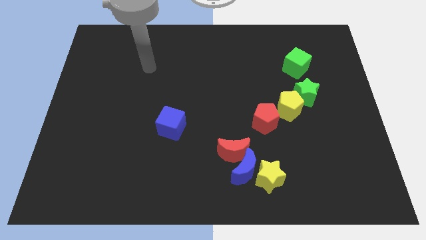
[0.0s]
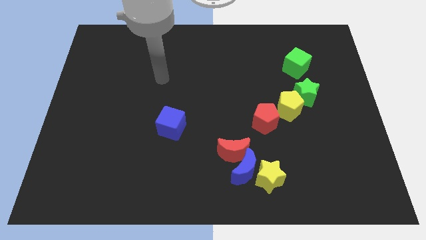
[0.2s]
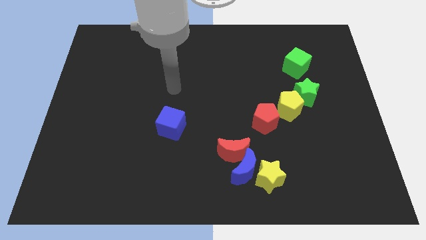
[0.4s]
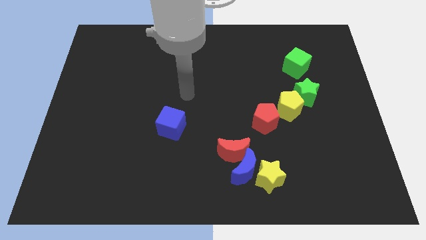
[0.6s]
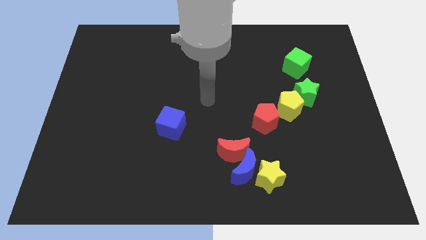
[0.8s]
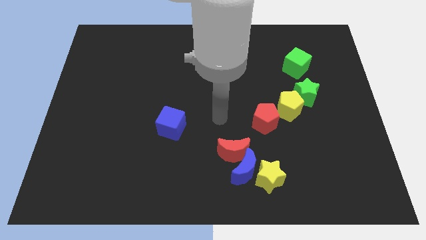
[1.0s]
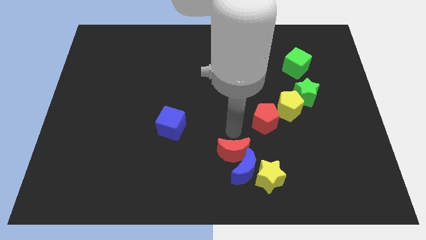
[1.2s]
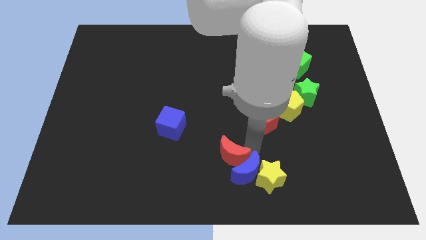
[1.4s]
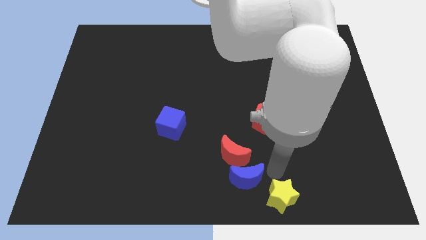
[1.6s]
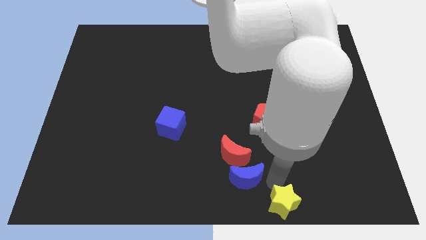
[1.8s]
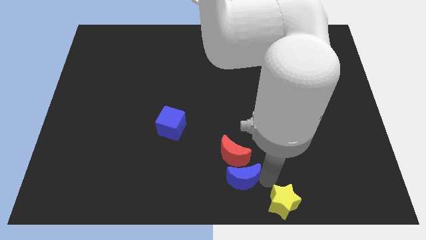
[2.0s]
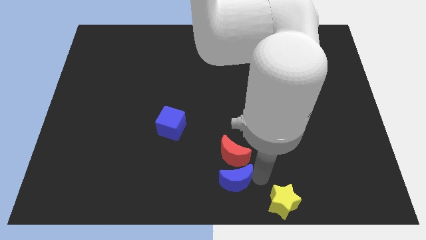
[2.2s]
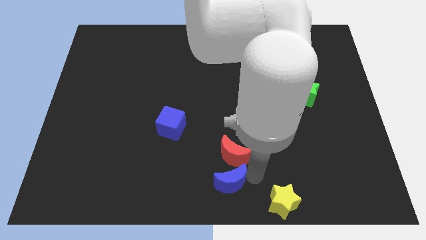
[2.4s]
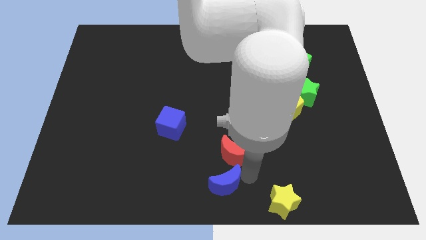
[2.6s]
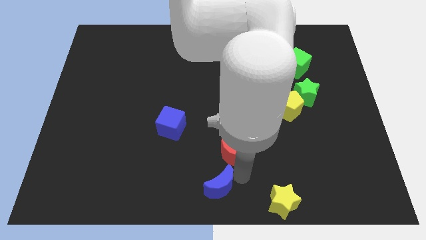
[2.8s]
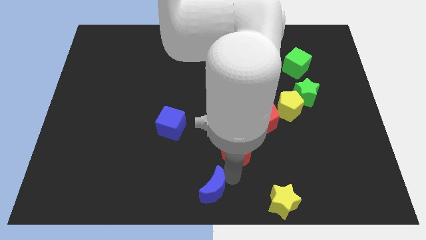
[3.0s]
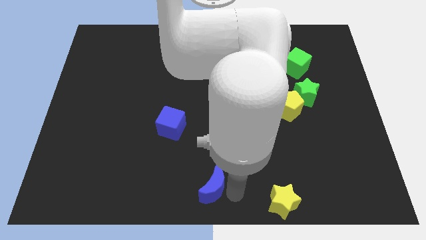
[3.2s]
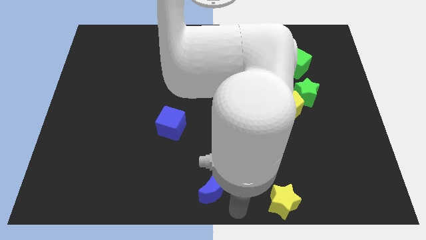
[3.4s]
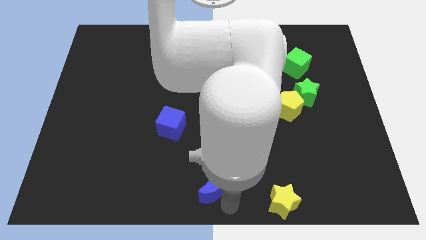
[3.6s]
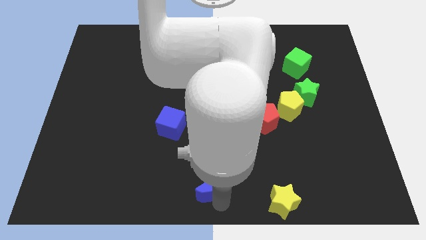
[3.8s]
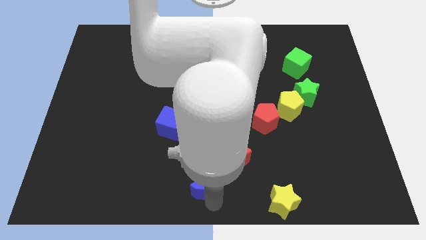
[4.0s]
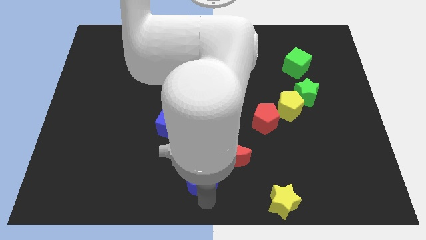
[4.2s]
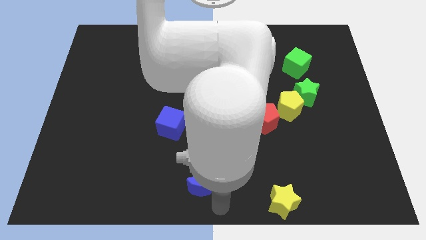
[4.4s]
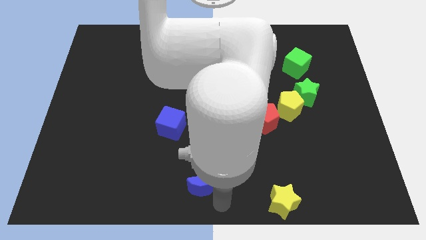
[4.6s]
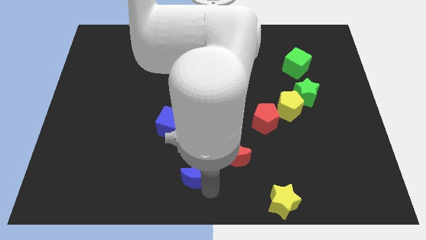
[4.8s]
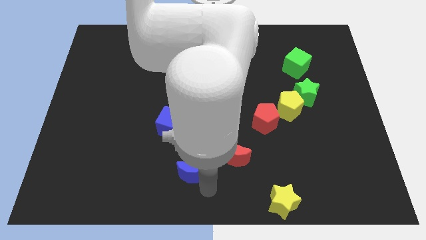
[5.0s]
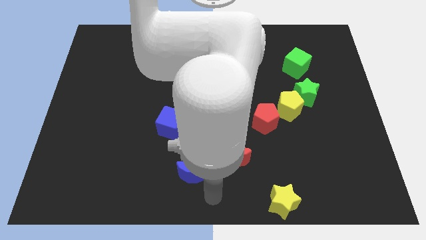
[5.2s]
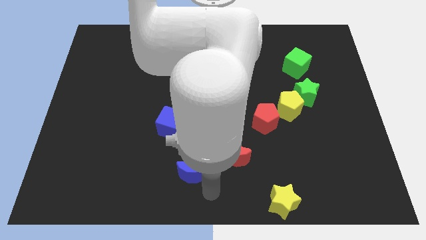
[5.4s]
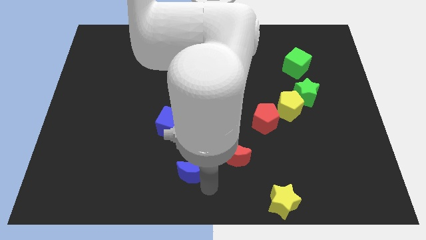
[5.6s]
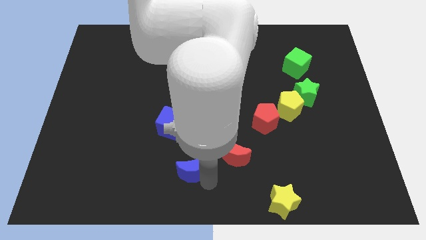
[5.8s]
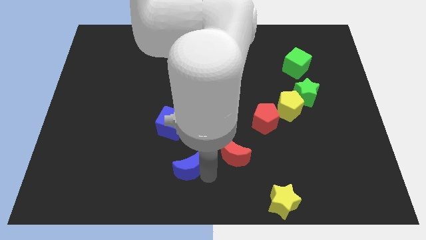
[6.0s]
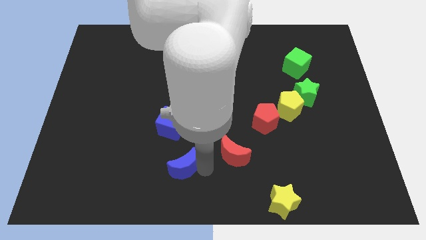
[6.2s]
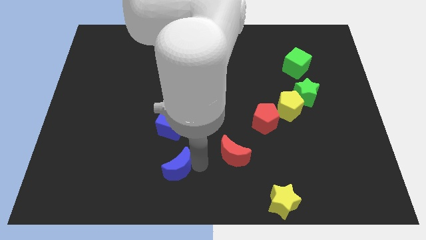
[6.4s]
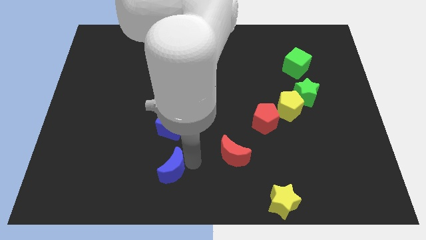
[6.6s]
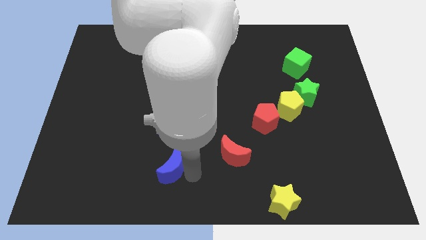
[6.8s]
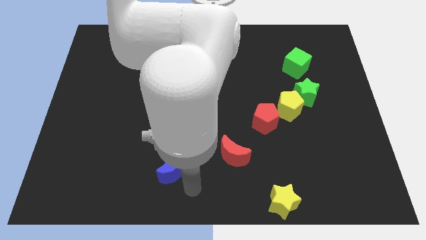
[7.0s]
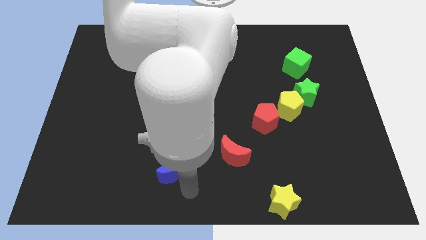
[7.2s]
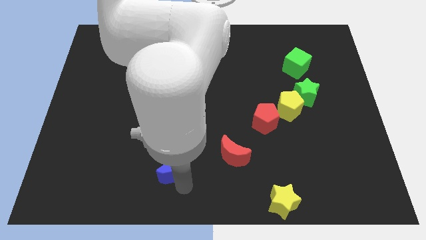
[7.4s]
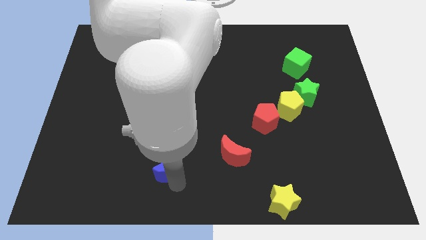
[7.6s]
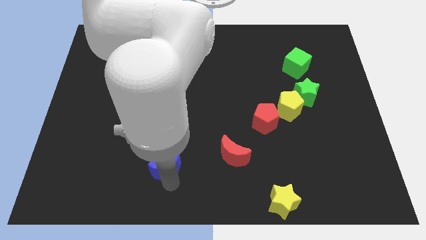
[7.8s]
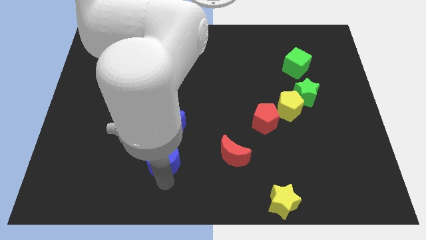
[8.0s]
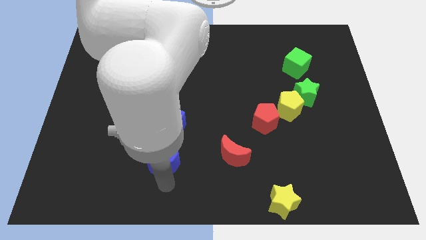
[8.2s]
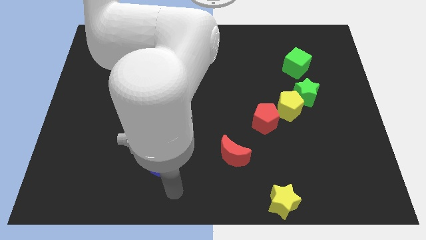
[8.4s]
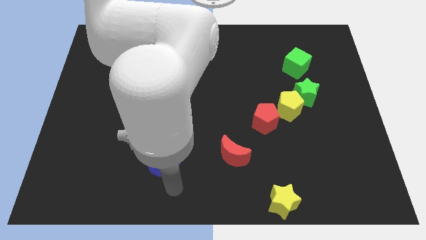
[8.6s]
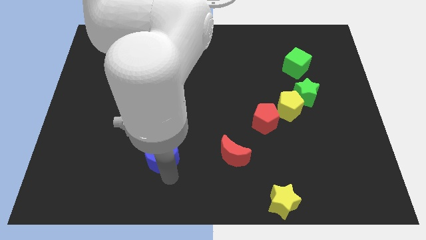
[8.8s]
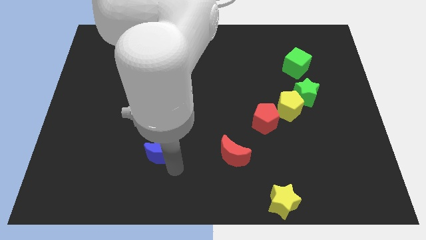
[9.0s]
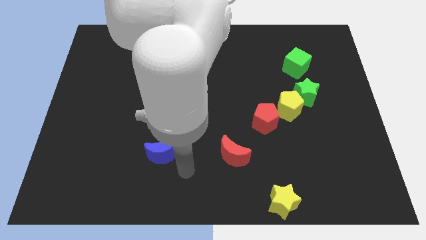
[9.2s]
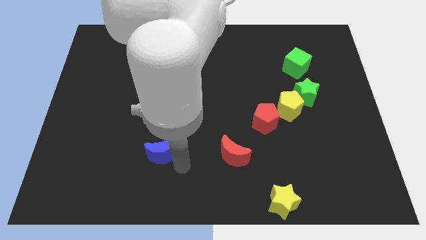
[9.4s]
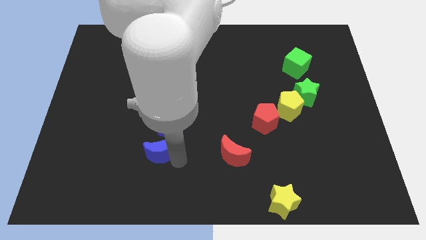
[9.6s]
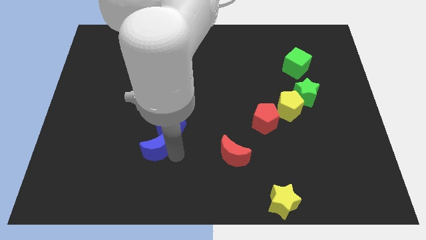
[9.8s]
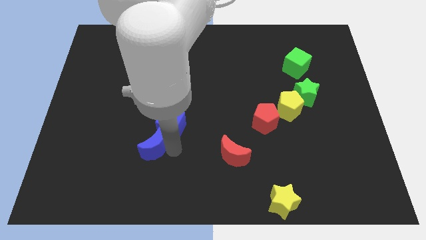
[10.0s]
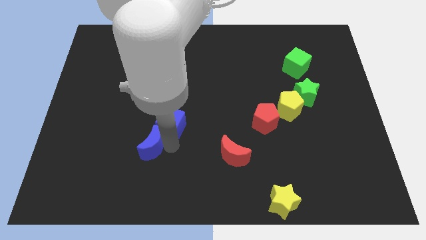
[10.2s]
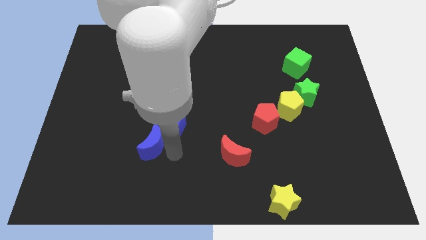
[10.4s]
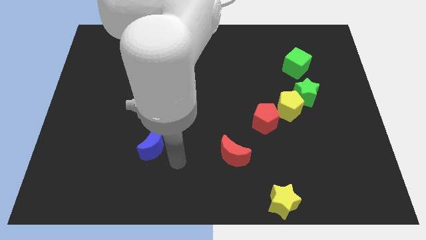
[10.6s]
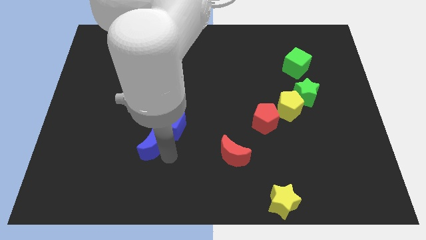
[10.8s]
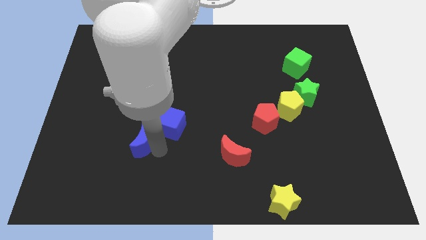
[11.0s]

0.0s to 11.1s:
move the blue moon to the left of the blue cube

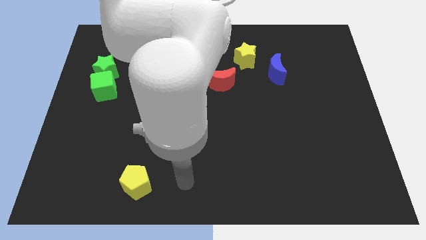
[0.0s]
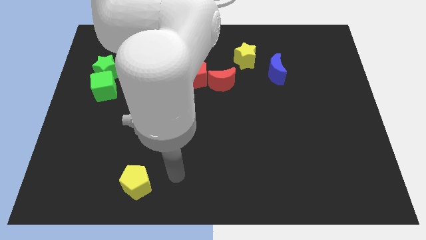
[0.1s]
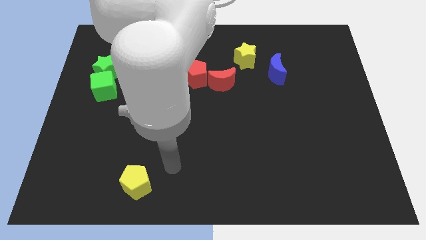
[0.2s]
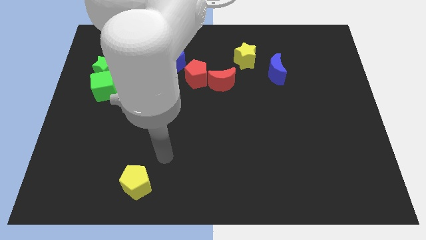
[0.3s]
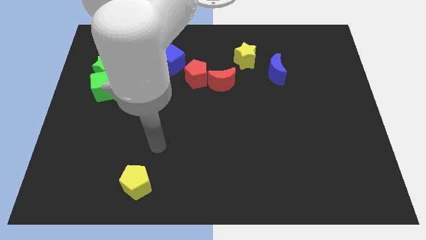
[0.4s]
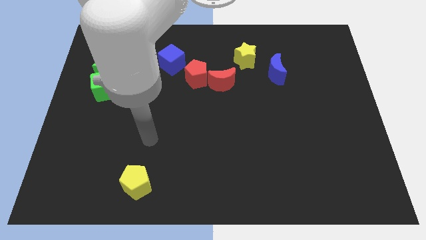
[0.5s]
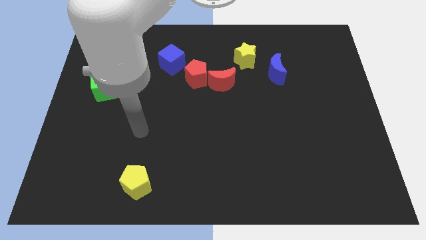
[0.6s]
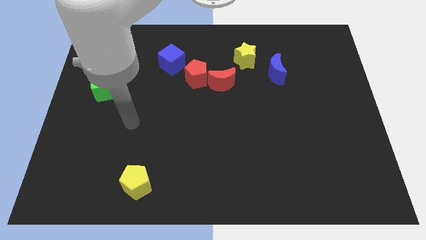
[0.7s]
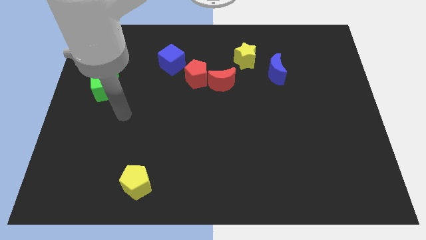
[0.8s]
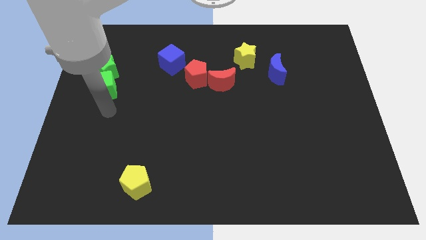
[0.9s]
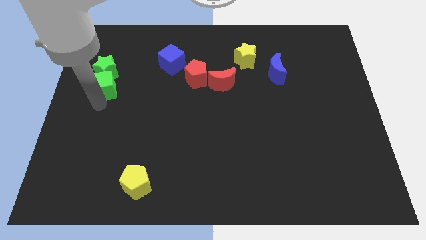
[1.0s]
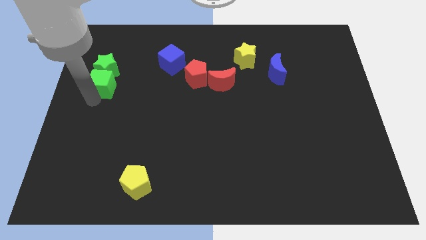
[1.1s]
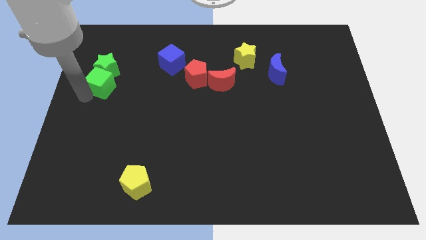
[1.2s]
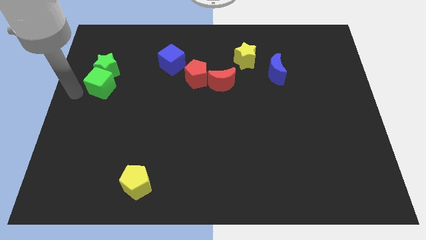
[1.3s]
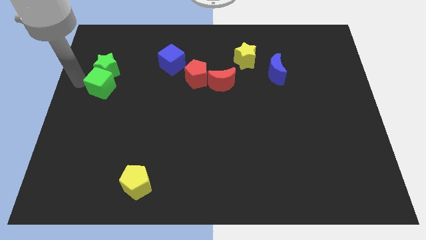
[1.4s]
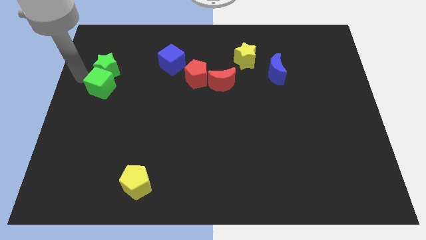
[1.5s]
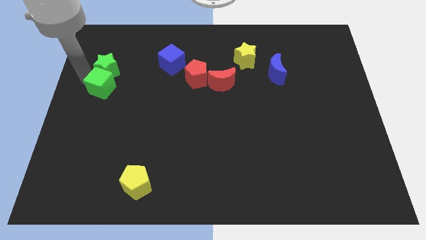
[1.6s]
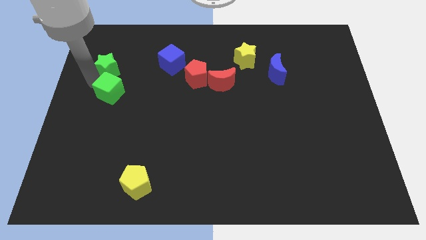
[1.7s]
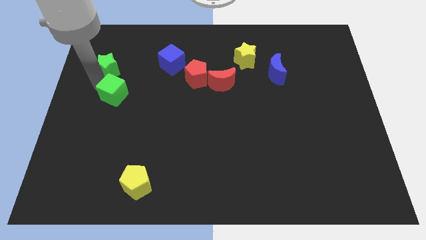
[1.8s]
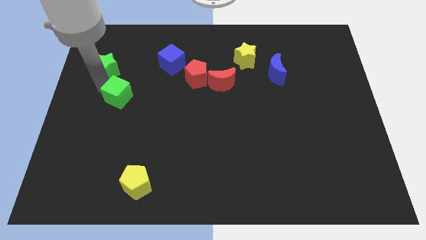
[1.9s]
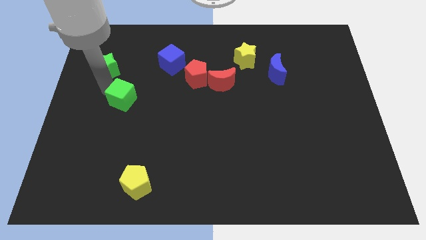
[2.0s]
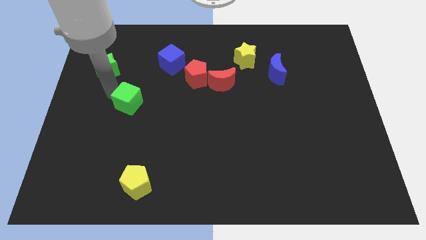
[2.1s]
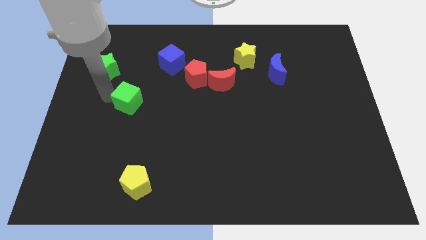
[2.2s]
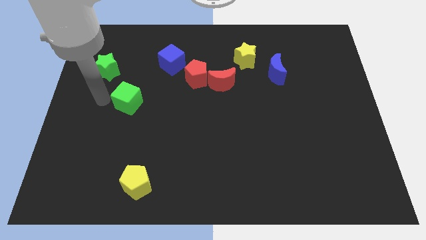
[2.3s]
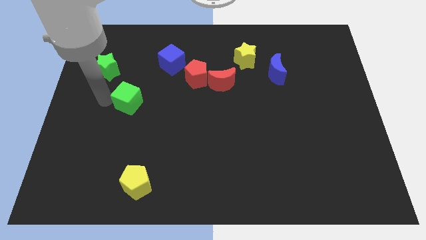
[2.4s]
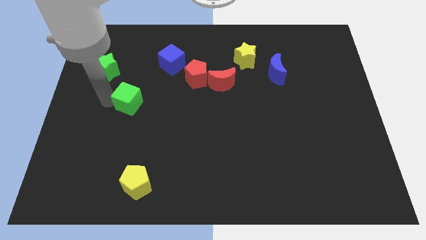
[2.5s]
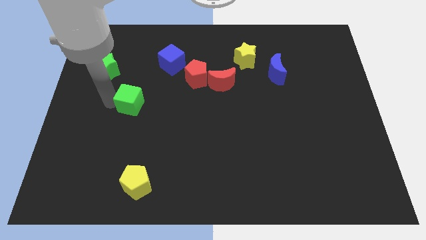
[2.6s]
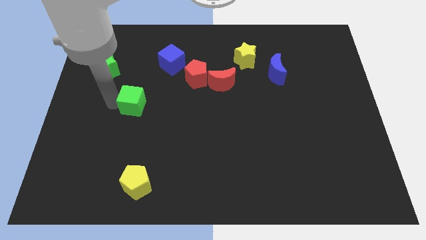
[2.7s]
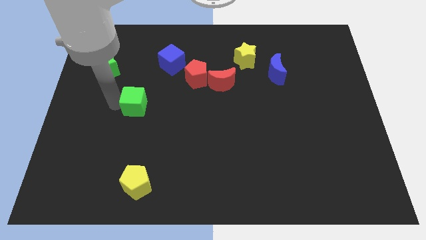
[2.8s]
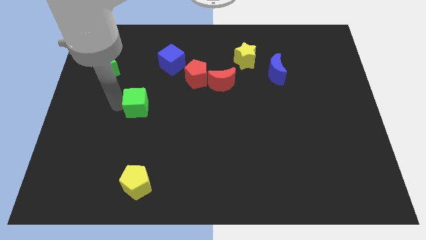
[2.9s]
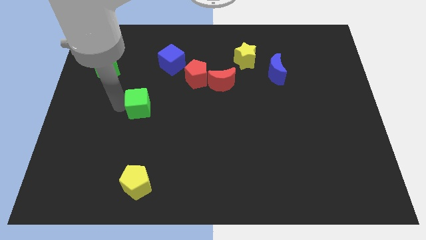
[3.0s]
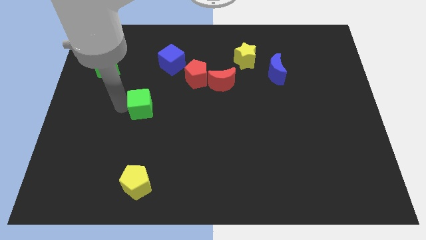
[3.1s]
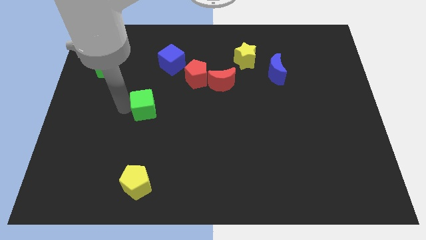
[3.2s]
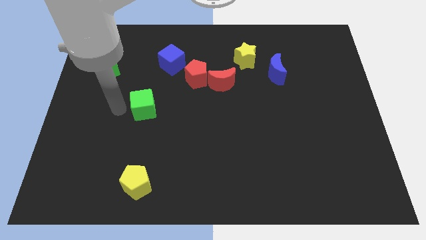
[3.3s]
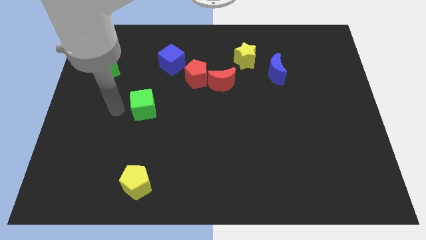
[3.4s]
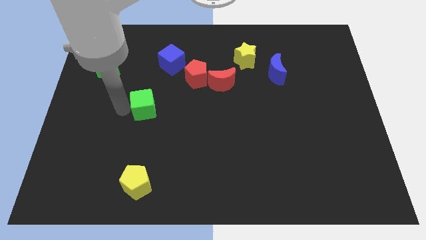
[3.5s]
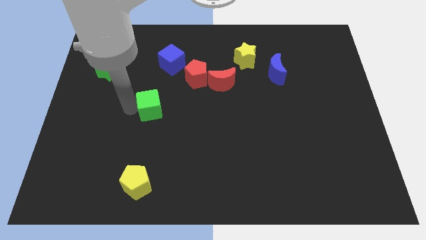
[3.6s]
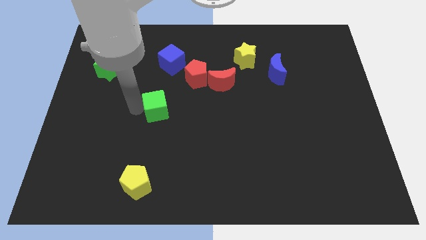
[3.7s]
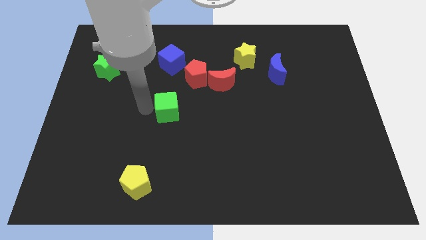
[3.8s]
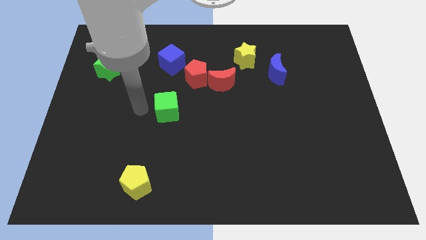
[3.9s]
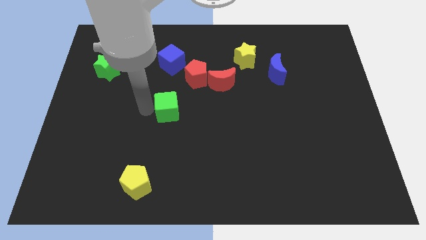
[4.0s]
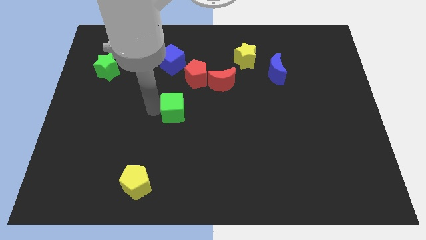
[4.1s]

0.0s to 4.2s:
slide the green cube to the bottom of the red pentagon
